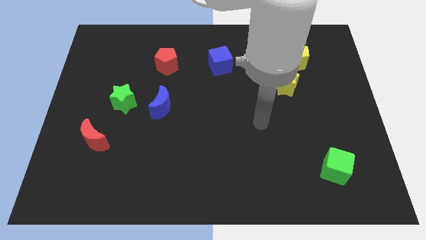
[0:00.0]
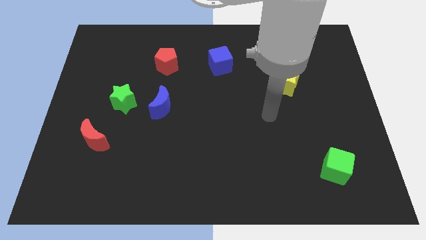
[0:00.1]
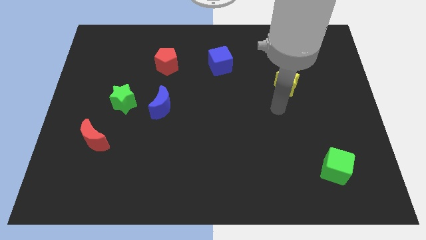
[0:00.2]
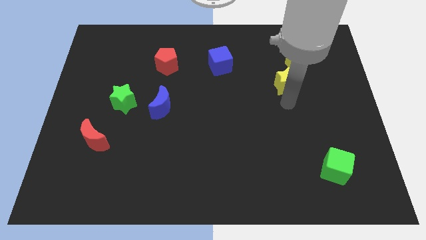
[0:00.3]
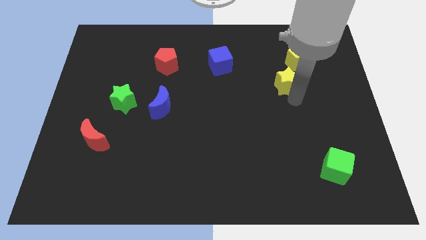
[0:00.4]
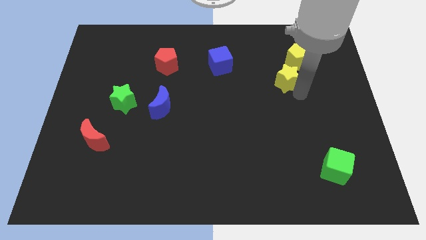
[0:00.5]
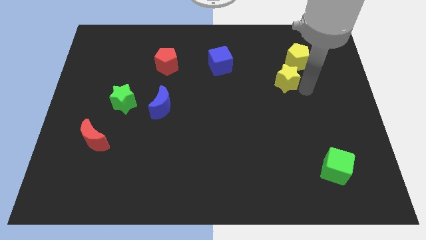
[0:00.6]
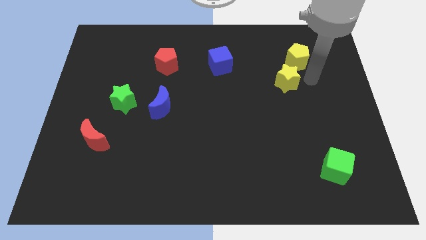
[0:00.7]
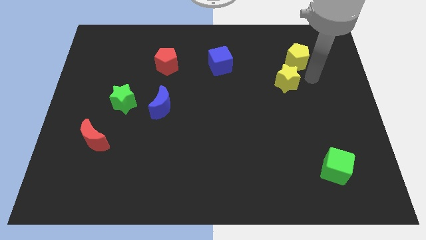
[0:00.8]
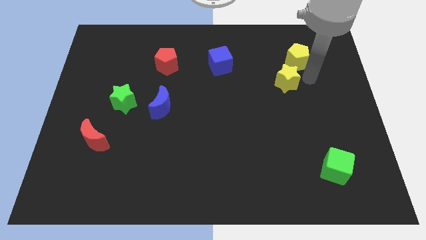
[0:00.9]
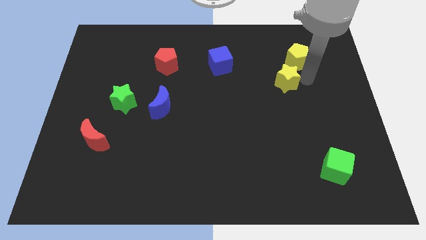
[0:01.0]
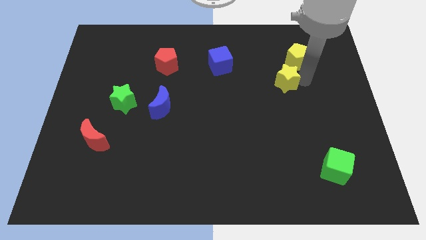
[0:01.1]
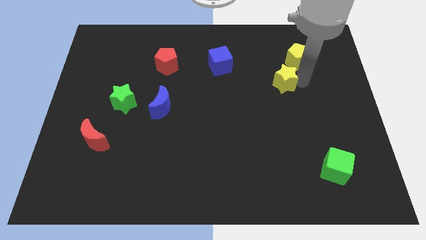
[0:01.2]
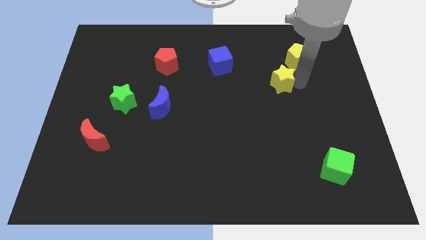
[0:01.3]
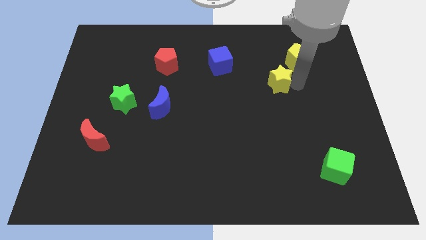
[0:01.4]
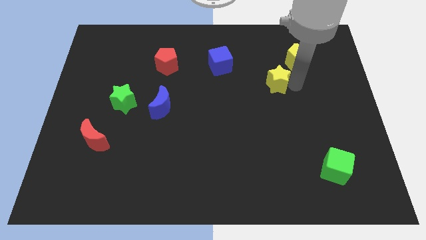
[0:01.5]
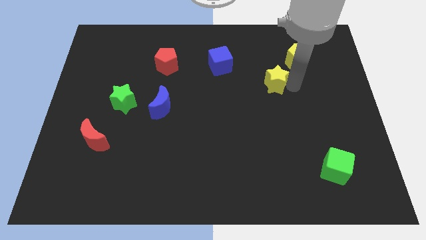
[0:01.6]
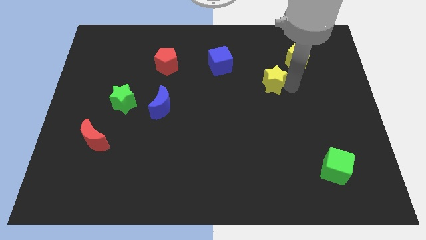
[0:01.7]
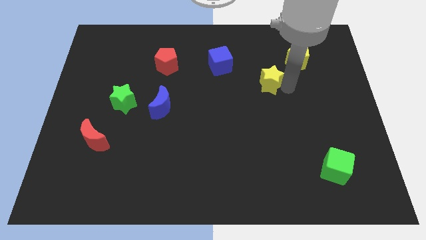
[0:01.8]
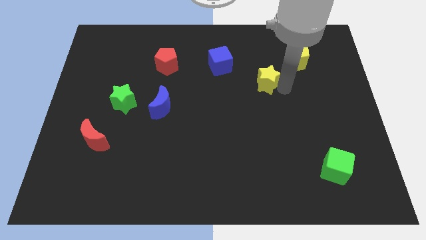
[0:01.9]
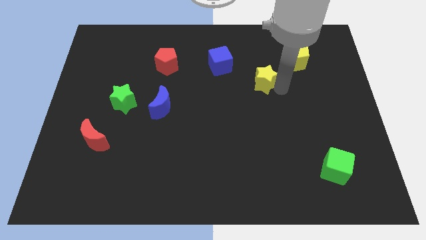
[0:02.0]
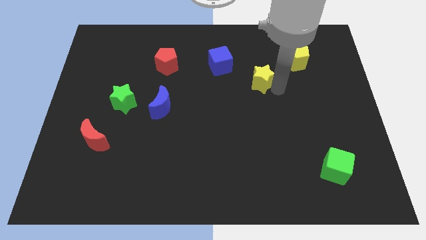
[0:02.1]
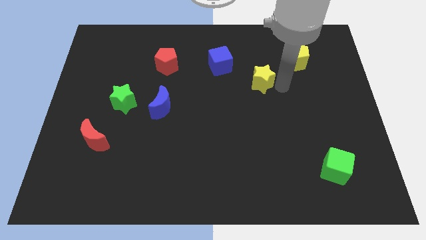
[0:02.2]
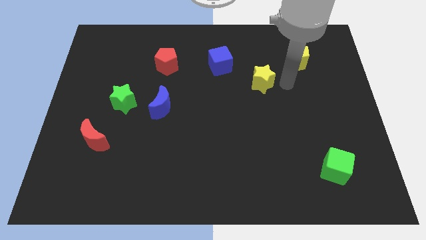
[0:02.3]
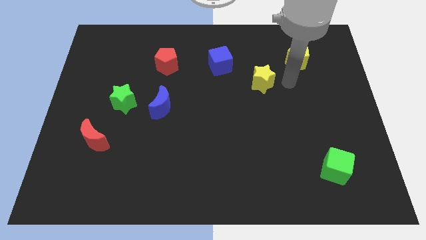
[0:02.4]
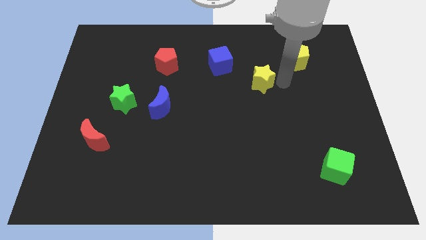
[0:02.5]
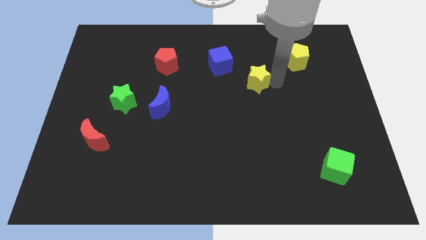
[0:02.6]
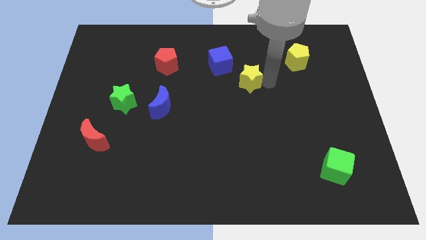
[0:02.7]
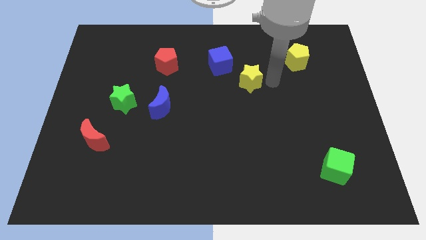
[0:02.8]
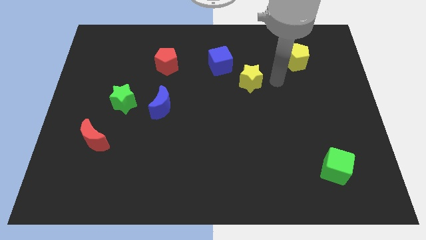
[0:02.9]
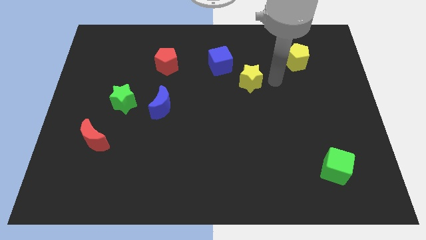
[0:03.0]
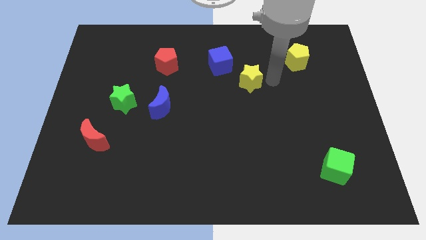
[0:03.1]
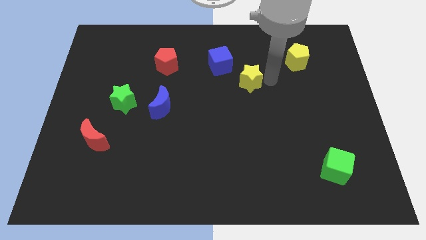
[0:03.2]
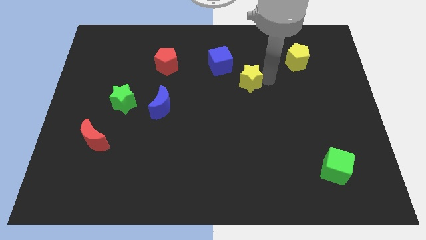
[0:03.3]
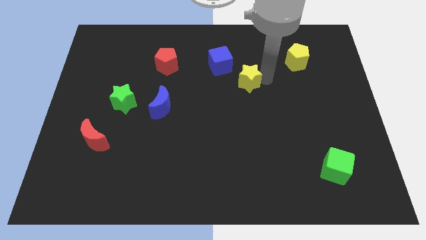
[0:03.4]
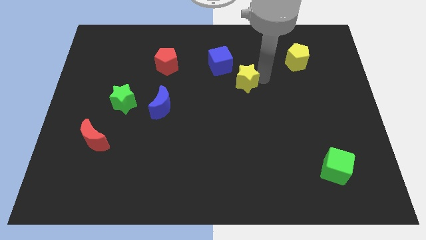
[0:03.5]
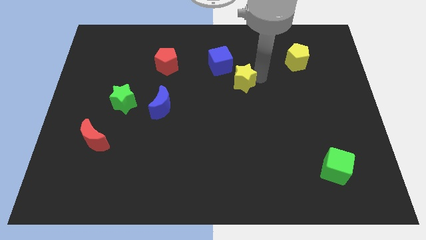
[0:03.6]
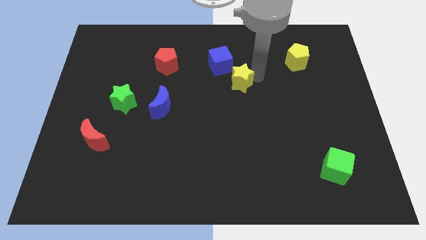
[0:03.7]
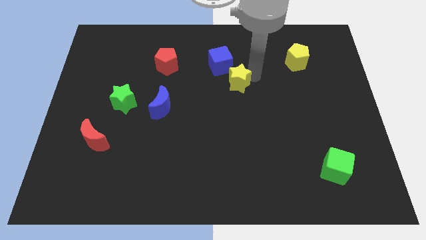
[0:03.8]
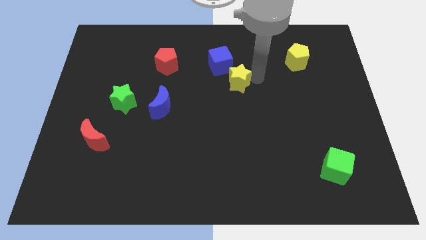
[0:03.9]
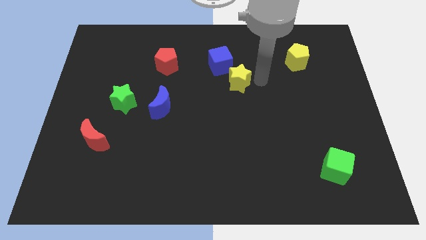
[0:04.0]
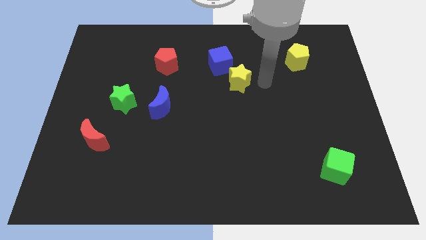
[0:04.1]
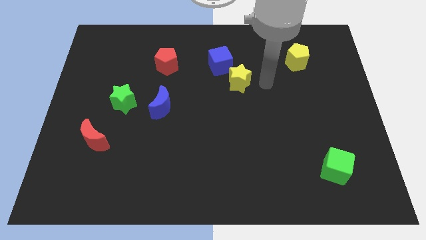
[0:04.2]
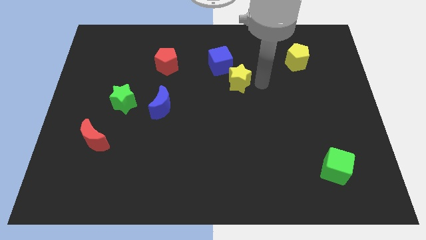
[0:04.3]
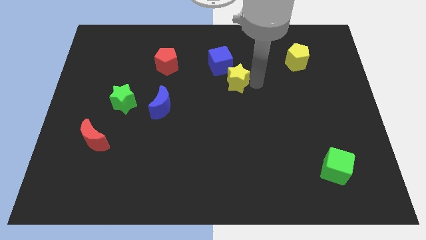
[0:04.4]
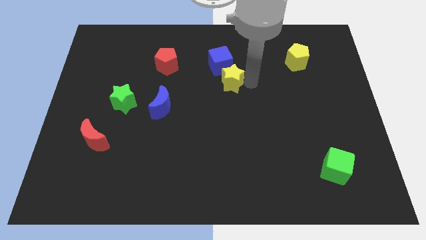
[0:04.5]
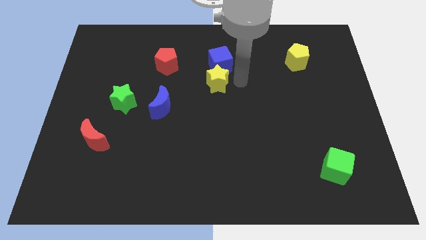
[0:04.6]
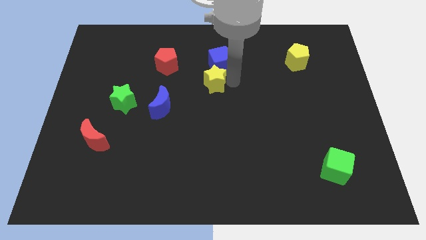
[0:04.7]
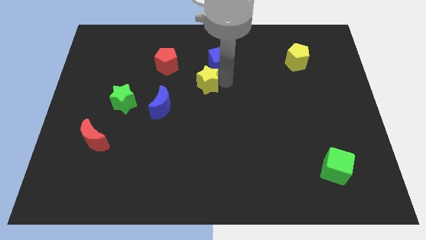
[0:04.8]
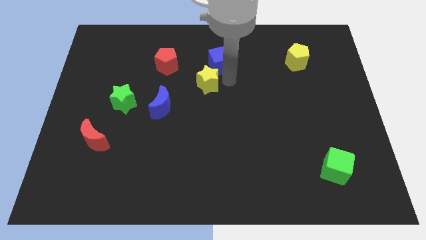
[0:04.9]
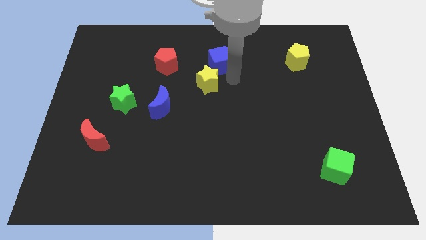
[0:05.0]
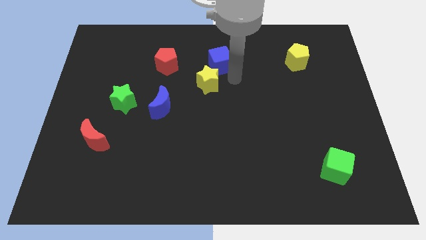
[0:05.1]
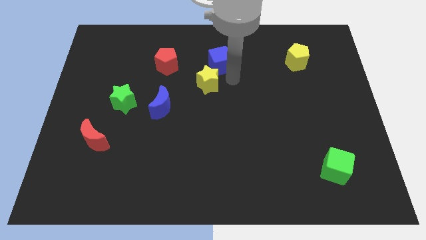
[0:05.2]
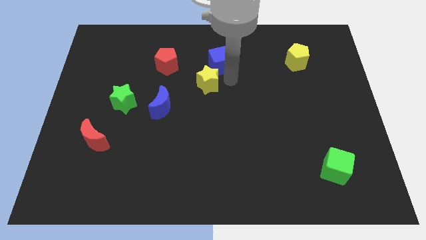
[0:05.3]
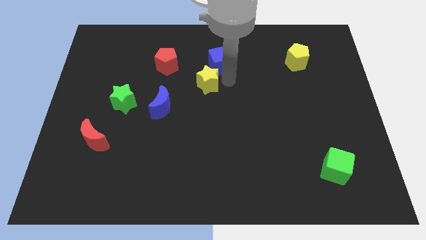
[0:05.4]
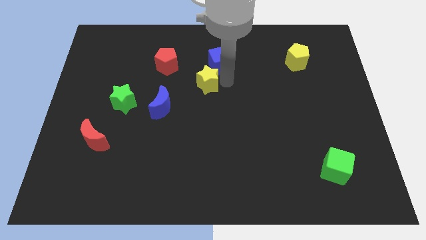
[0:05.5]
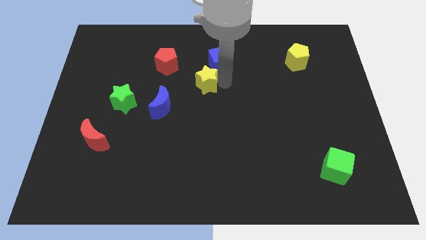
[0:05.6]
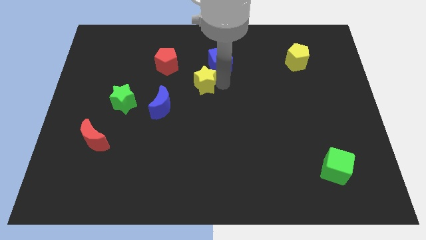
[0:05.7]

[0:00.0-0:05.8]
slide the yellow star to the left

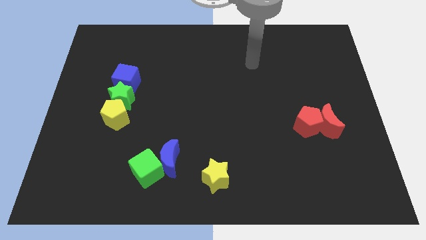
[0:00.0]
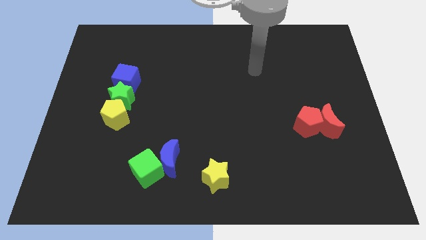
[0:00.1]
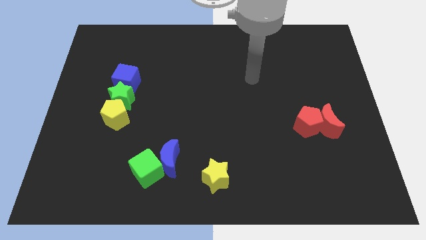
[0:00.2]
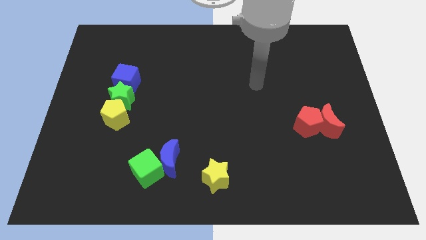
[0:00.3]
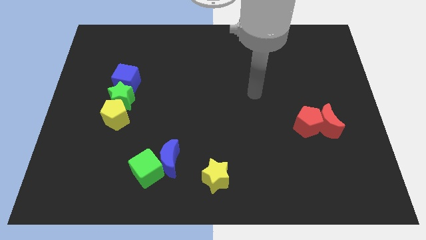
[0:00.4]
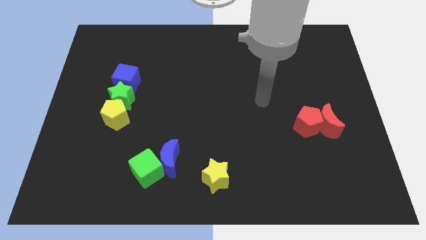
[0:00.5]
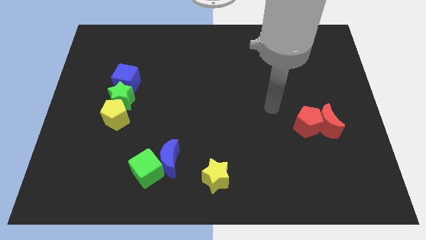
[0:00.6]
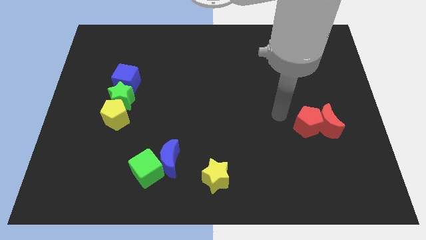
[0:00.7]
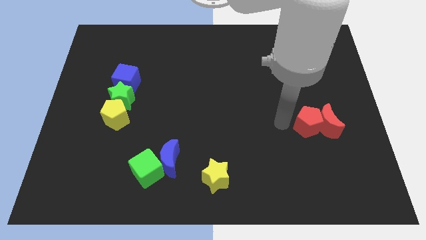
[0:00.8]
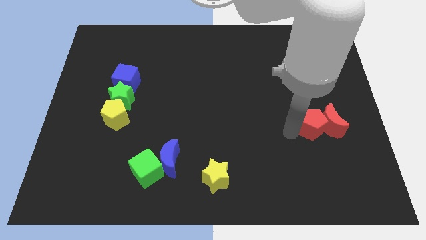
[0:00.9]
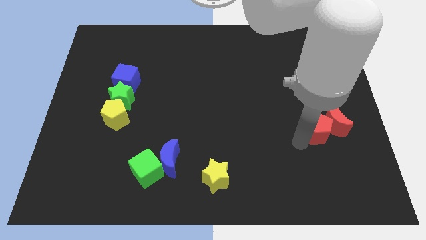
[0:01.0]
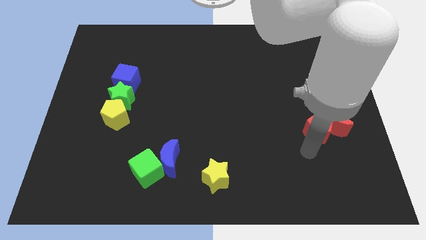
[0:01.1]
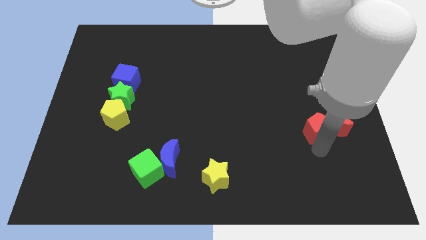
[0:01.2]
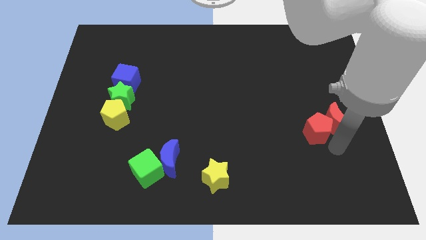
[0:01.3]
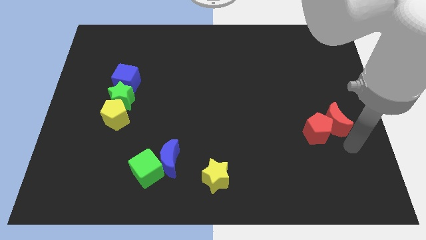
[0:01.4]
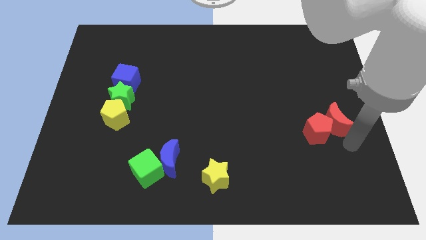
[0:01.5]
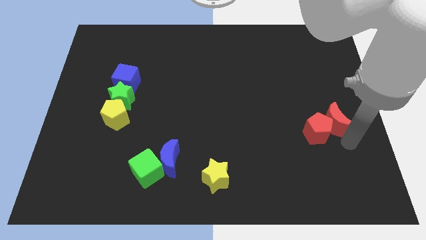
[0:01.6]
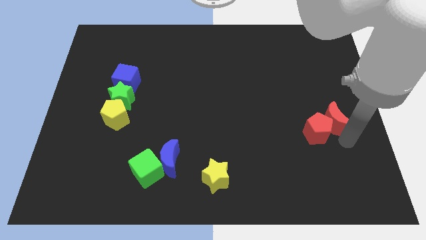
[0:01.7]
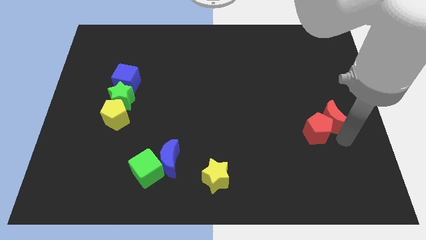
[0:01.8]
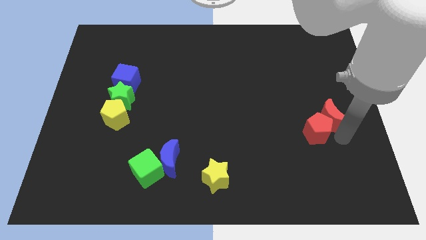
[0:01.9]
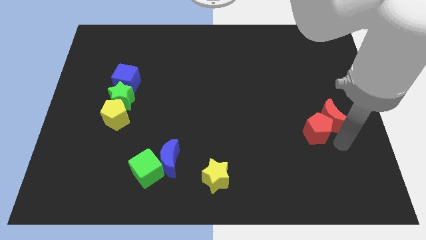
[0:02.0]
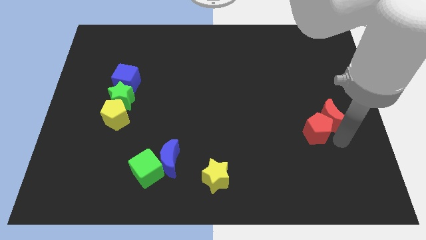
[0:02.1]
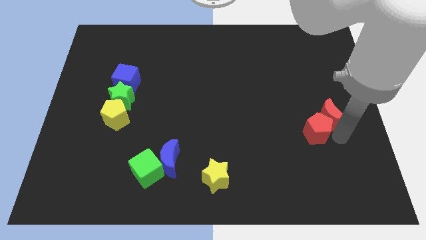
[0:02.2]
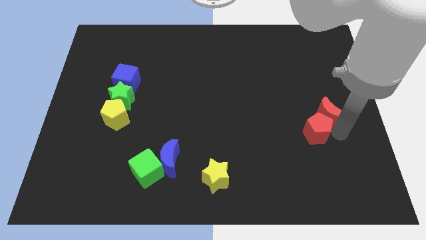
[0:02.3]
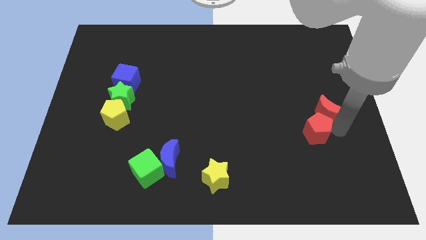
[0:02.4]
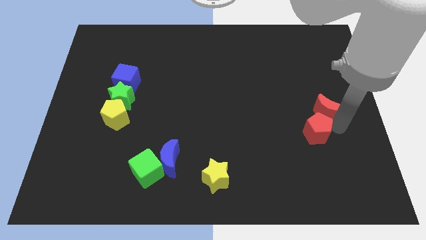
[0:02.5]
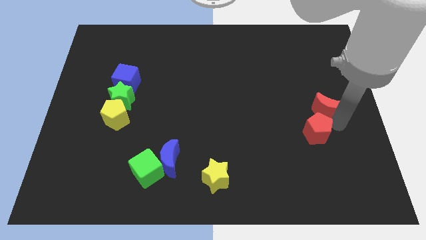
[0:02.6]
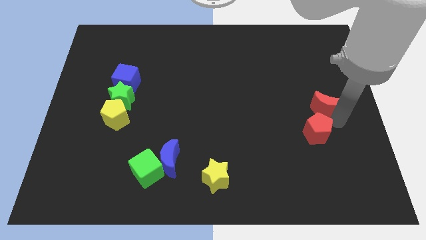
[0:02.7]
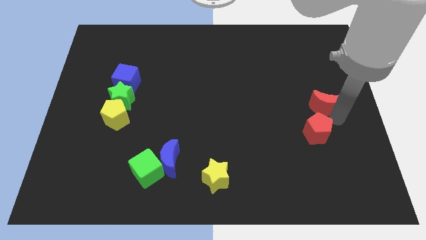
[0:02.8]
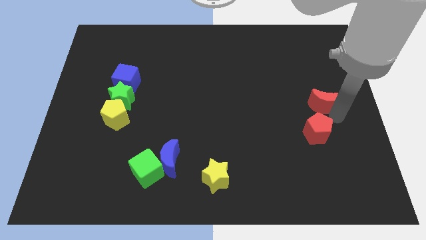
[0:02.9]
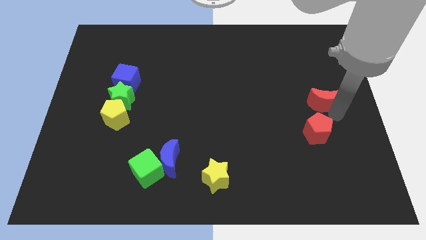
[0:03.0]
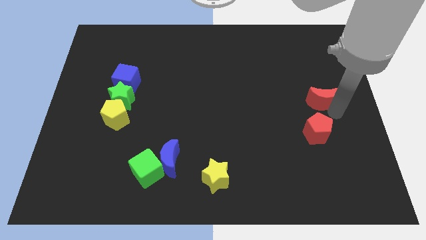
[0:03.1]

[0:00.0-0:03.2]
slide the red moon slightly upwards
